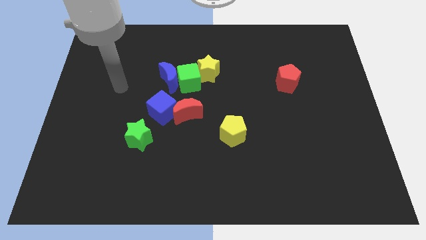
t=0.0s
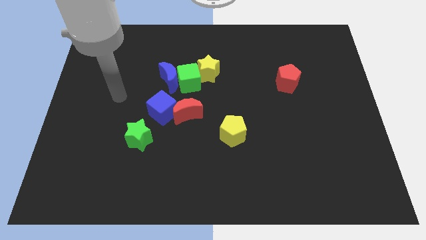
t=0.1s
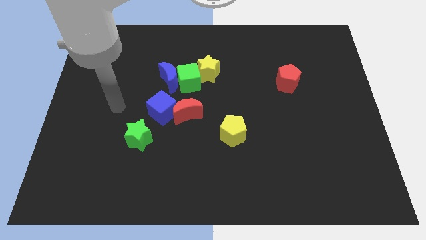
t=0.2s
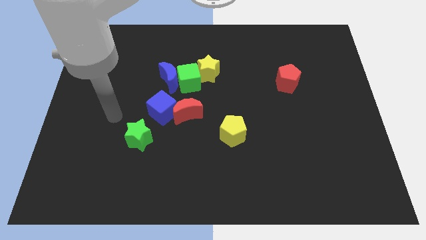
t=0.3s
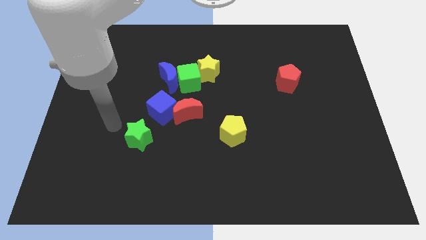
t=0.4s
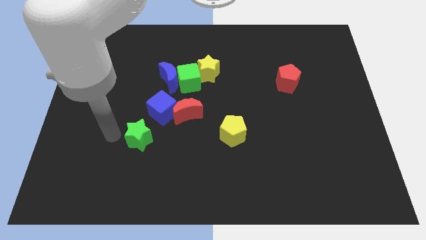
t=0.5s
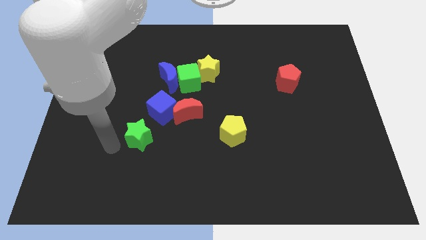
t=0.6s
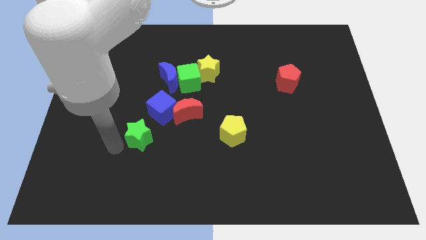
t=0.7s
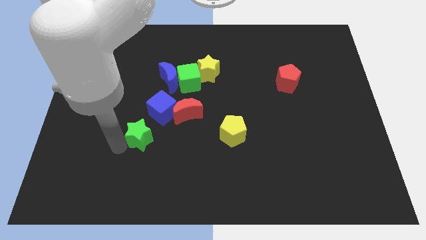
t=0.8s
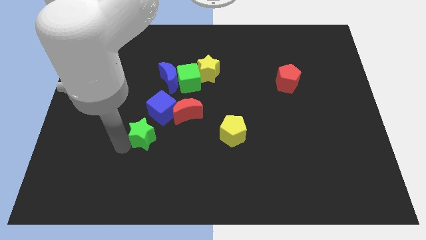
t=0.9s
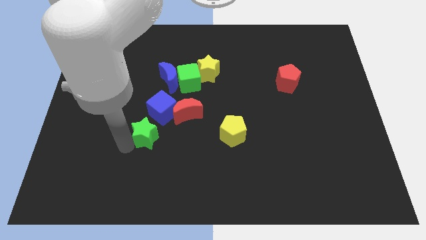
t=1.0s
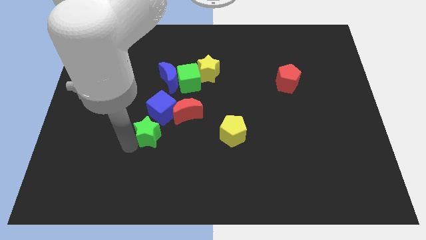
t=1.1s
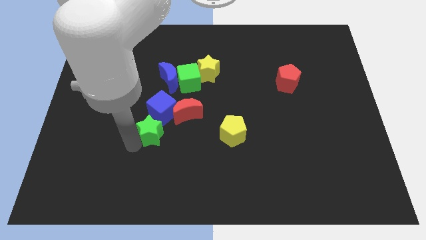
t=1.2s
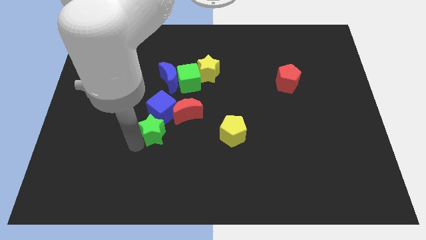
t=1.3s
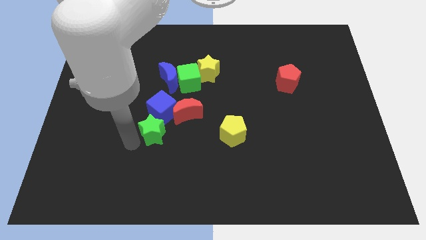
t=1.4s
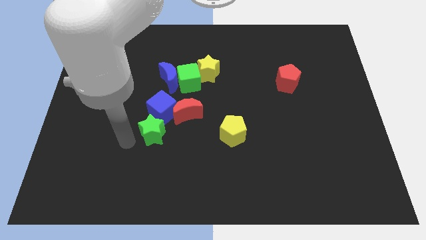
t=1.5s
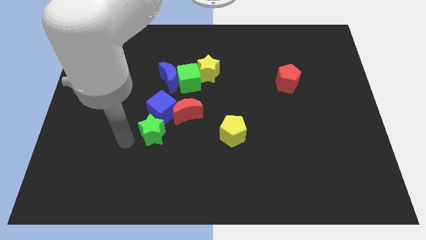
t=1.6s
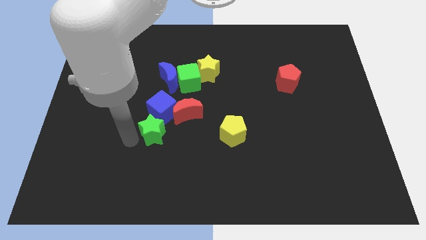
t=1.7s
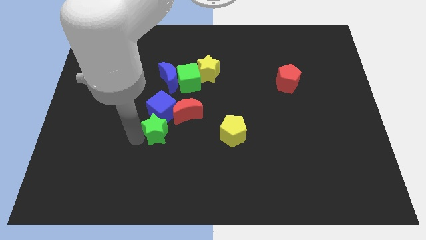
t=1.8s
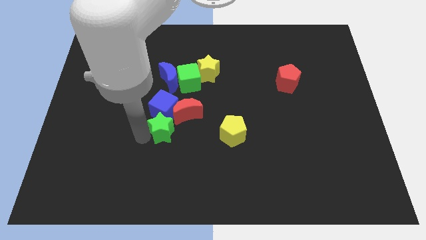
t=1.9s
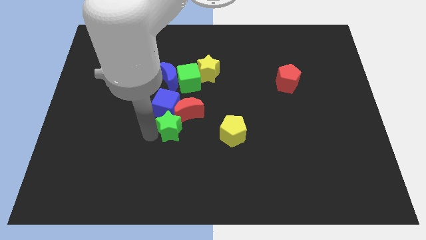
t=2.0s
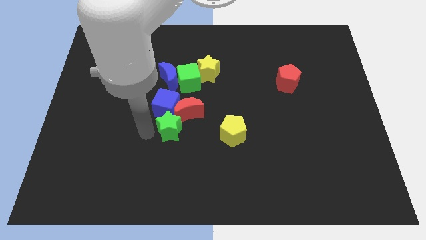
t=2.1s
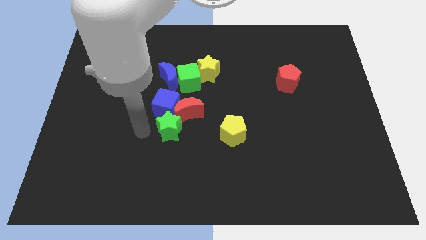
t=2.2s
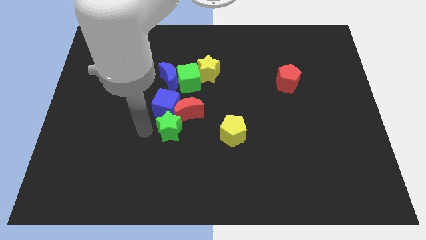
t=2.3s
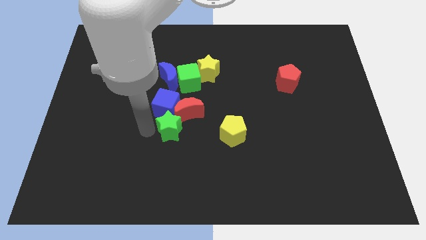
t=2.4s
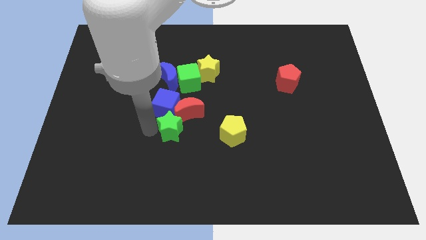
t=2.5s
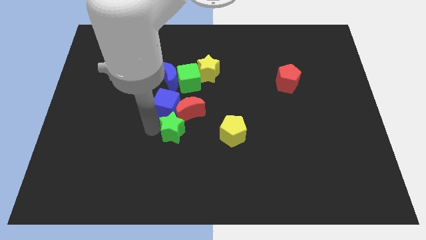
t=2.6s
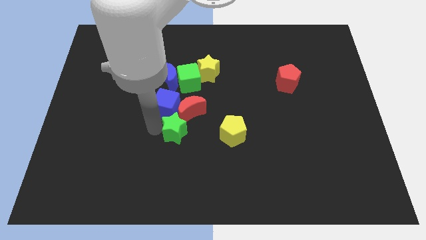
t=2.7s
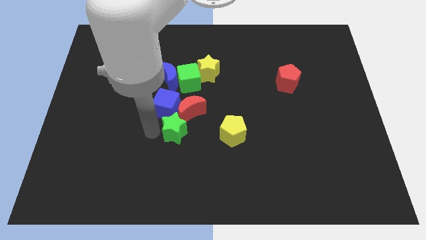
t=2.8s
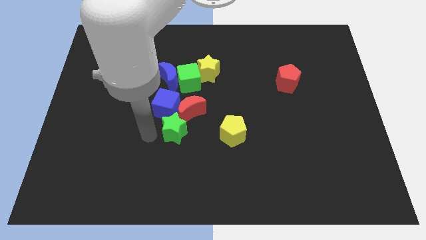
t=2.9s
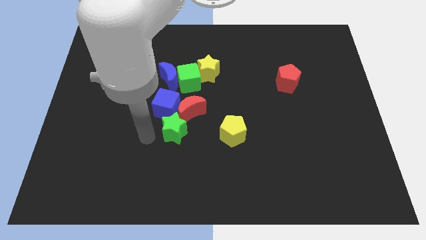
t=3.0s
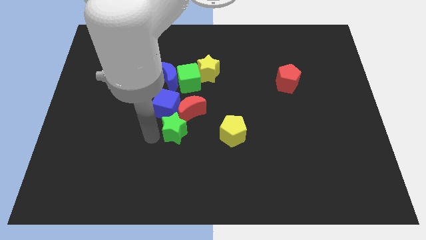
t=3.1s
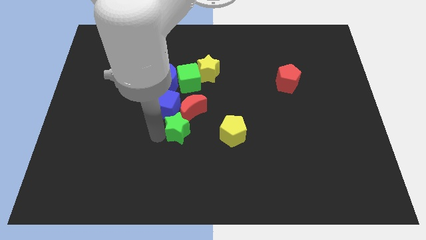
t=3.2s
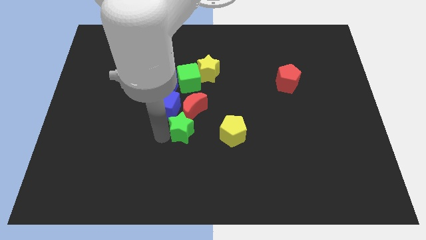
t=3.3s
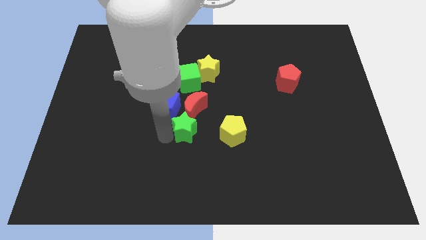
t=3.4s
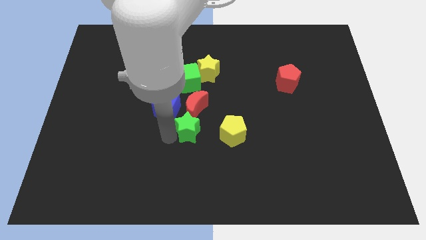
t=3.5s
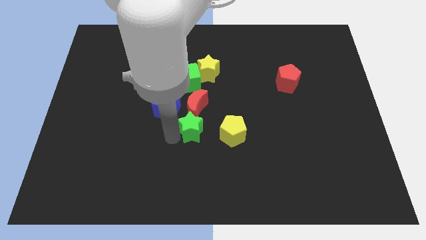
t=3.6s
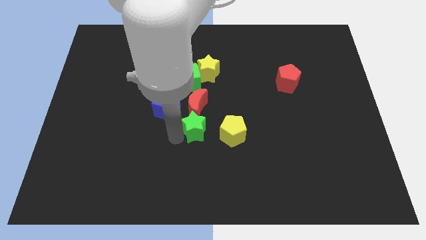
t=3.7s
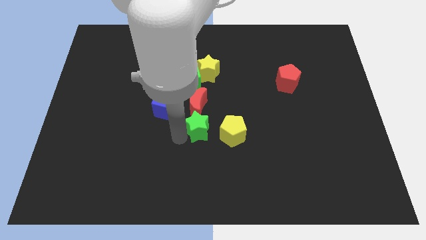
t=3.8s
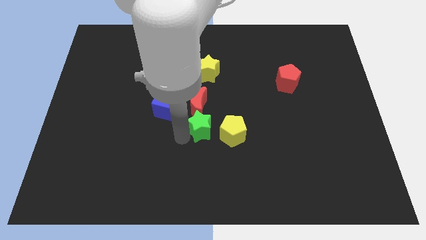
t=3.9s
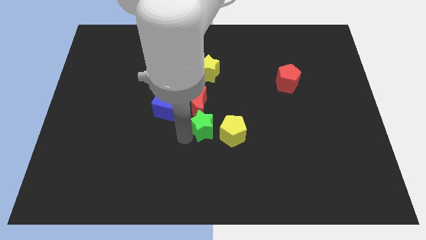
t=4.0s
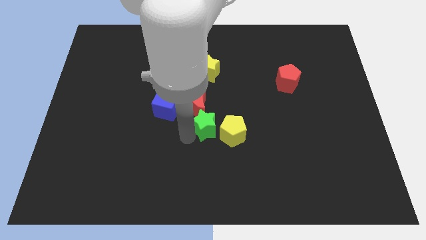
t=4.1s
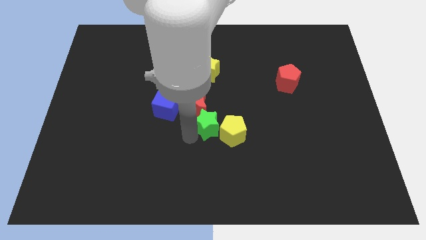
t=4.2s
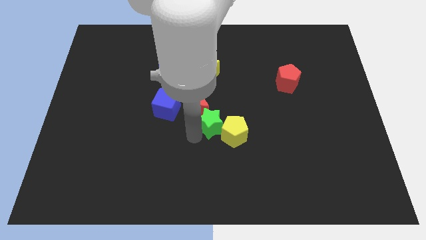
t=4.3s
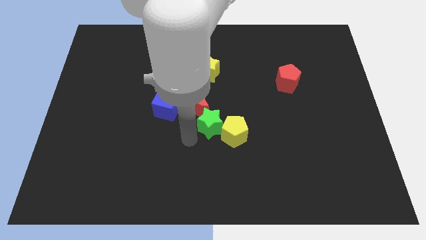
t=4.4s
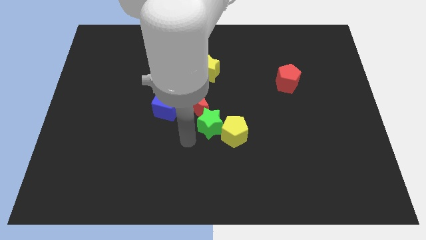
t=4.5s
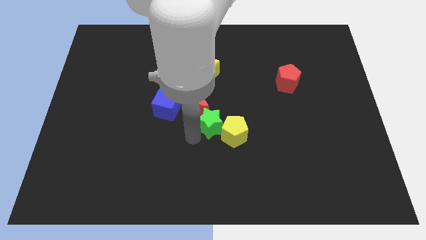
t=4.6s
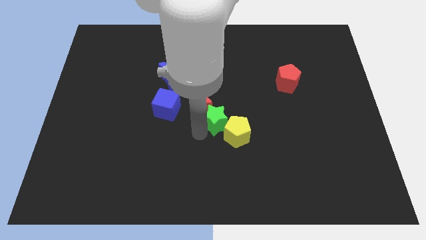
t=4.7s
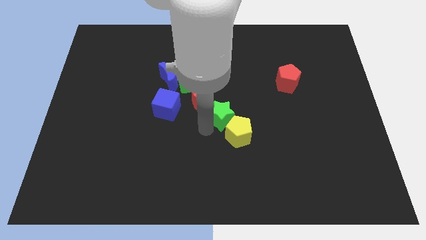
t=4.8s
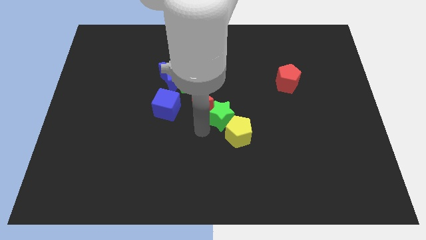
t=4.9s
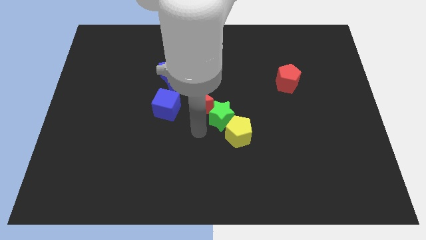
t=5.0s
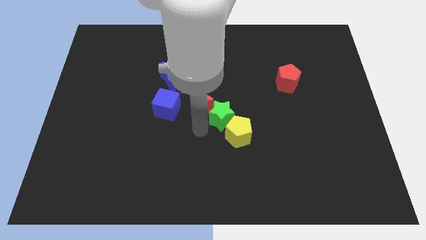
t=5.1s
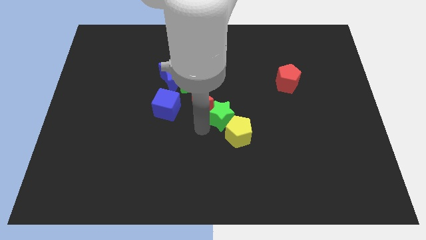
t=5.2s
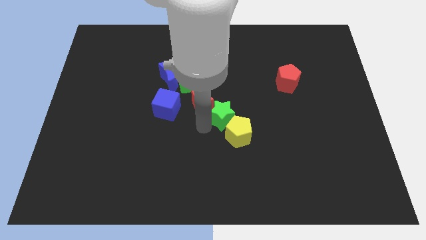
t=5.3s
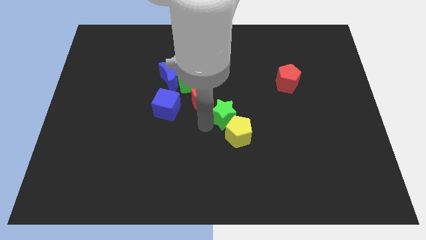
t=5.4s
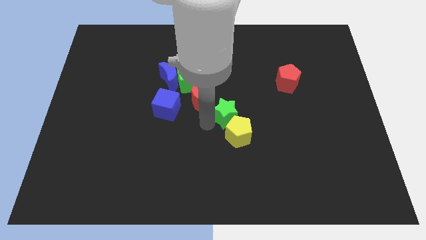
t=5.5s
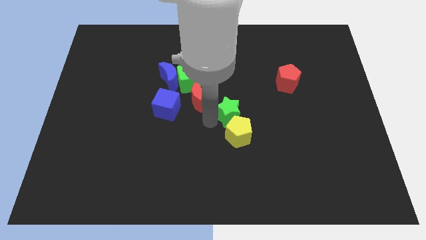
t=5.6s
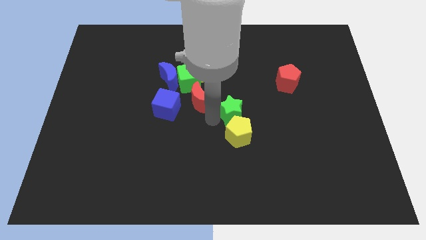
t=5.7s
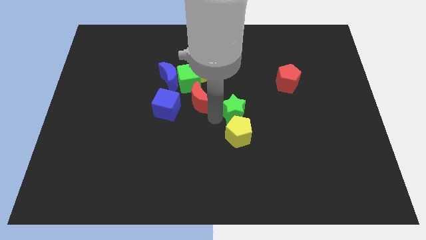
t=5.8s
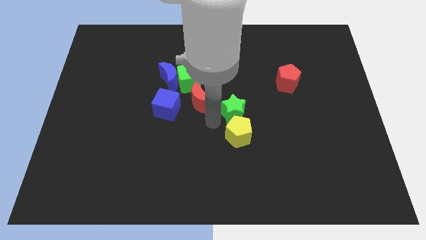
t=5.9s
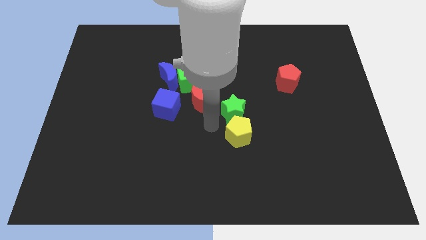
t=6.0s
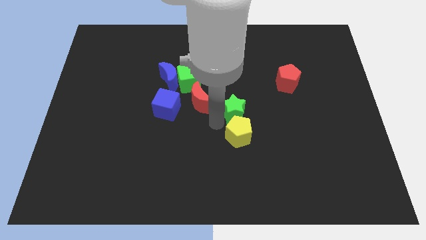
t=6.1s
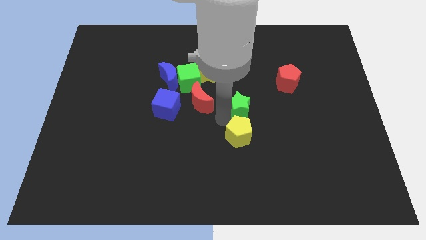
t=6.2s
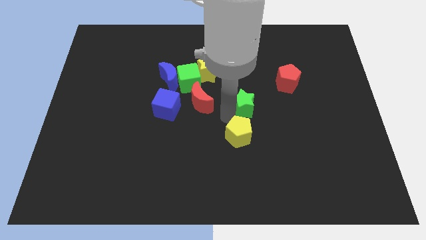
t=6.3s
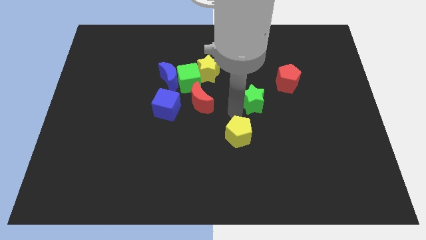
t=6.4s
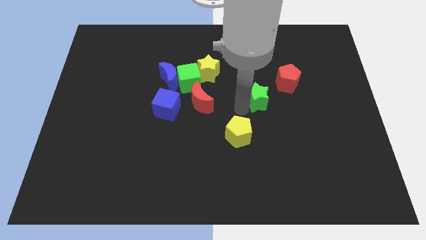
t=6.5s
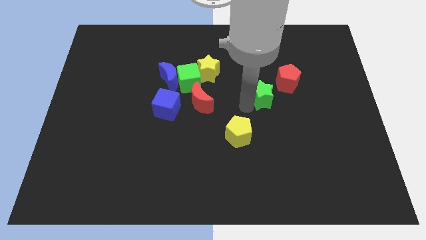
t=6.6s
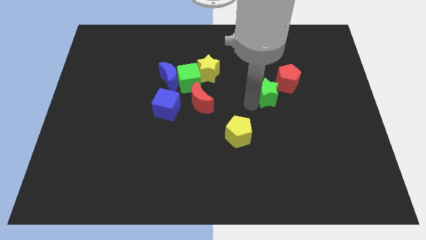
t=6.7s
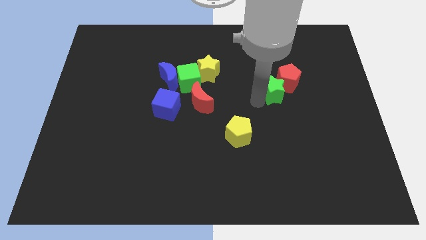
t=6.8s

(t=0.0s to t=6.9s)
put the green star next to the red pentagon
